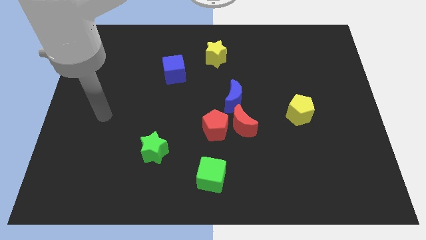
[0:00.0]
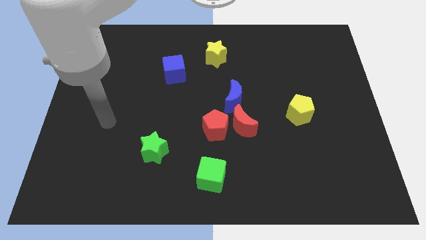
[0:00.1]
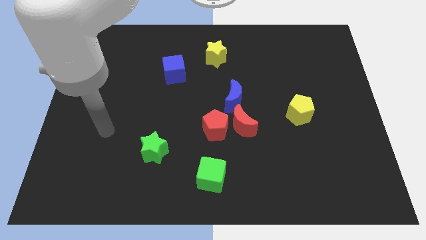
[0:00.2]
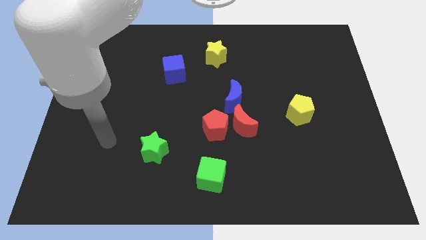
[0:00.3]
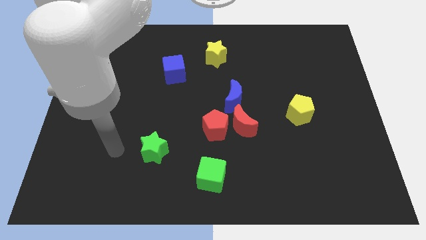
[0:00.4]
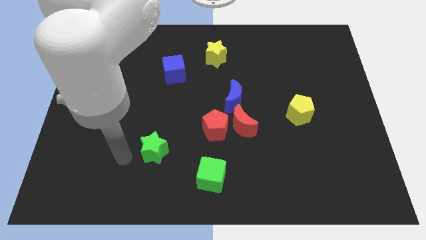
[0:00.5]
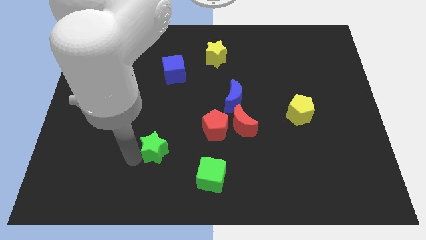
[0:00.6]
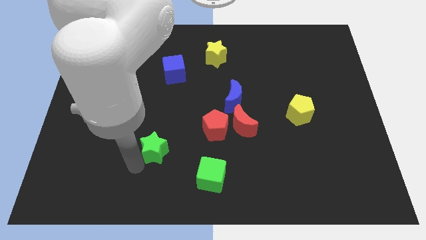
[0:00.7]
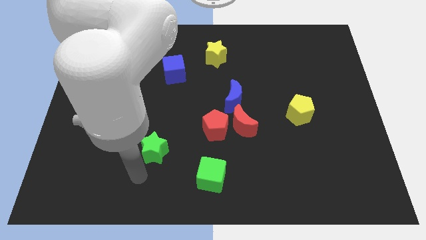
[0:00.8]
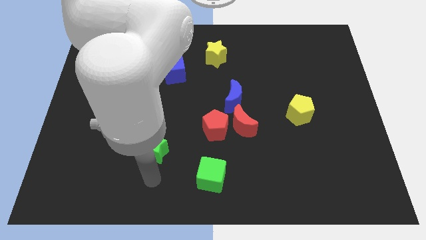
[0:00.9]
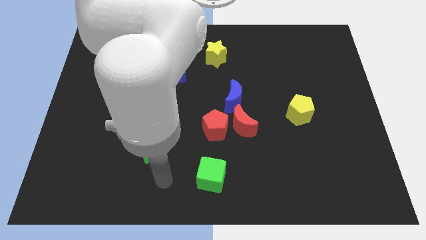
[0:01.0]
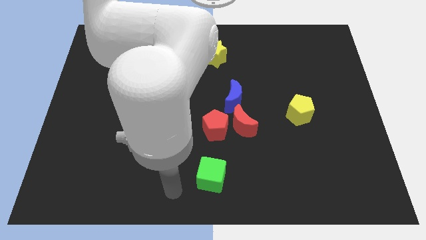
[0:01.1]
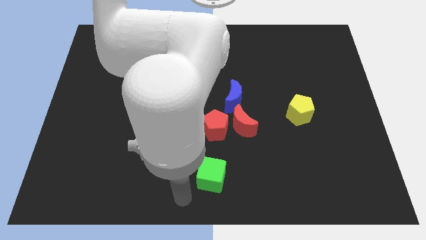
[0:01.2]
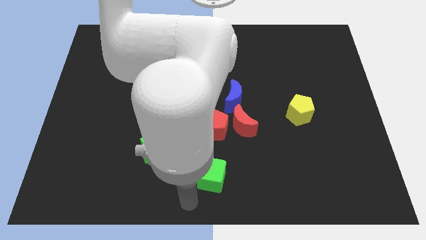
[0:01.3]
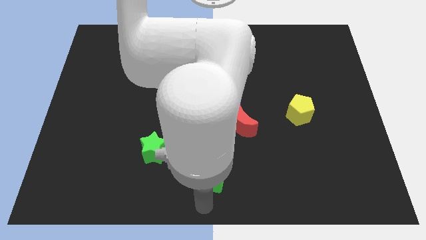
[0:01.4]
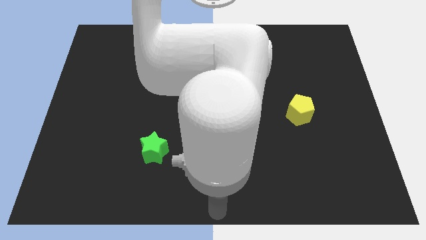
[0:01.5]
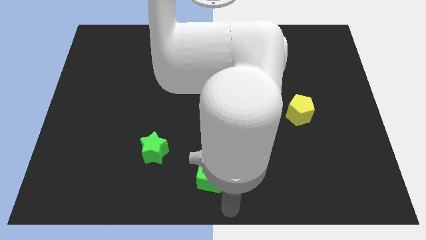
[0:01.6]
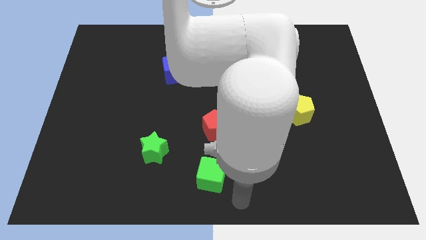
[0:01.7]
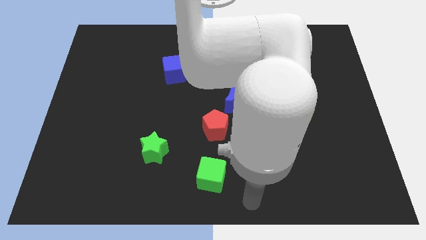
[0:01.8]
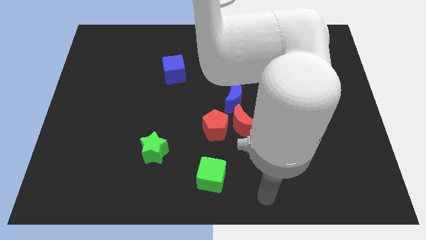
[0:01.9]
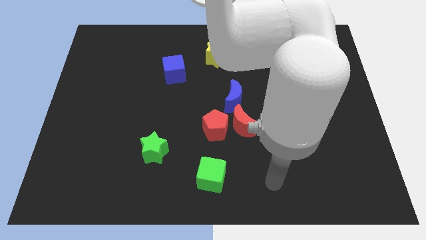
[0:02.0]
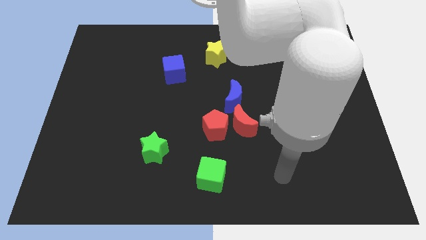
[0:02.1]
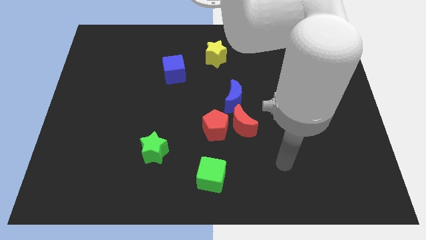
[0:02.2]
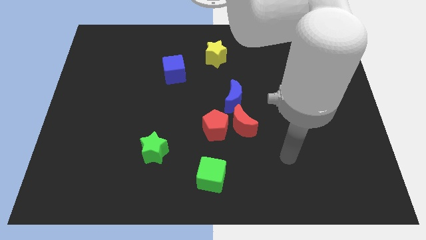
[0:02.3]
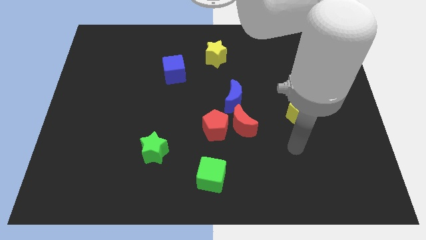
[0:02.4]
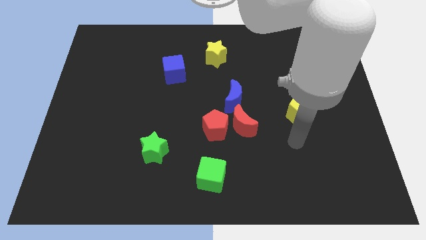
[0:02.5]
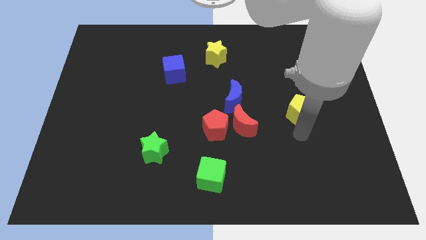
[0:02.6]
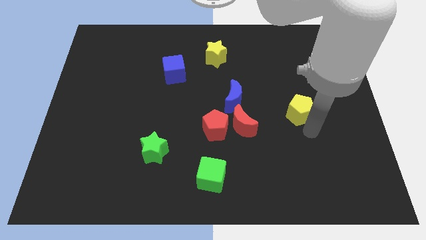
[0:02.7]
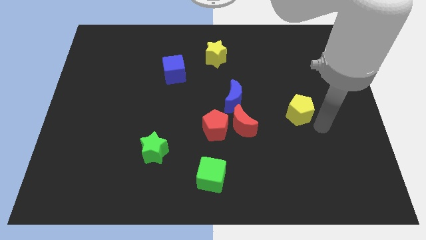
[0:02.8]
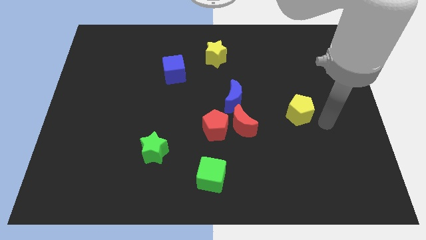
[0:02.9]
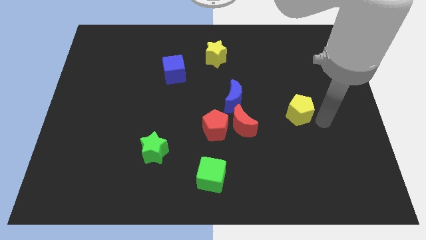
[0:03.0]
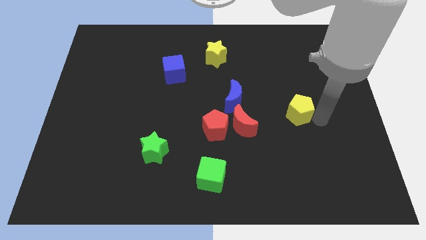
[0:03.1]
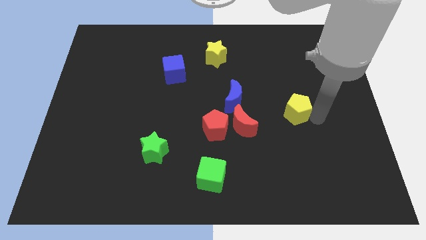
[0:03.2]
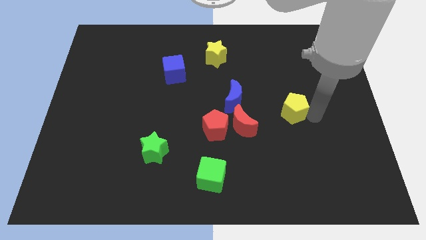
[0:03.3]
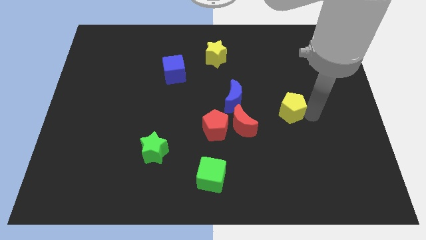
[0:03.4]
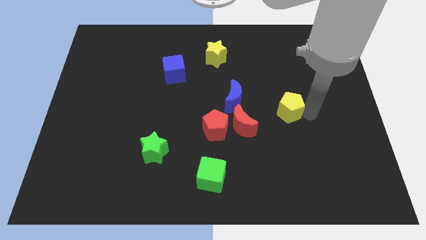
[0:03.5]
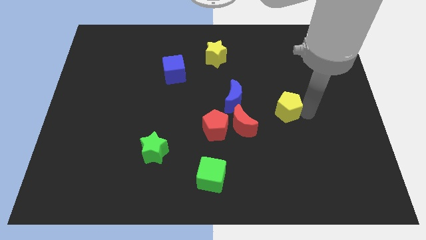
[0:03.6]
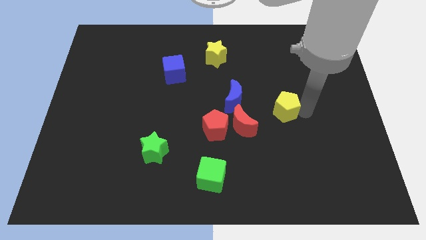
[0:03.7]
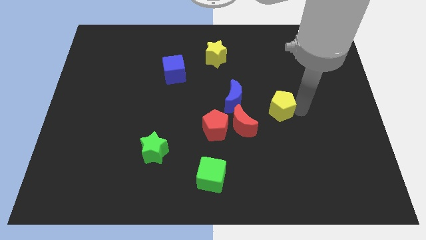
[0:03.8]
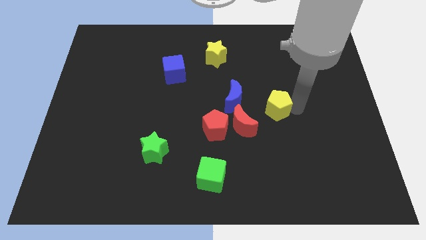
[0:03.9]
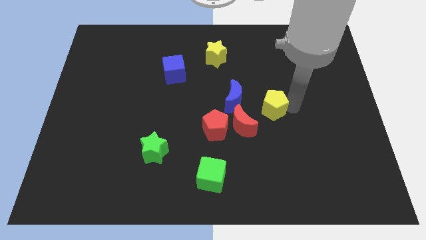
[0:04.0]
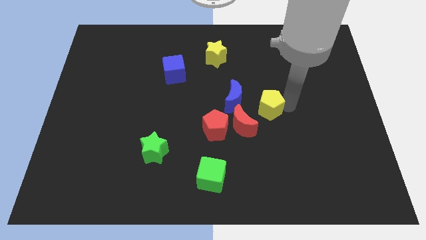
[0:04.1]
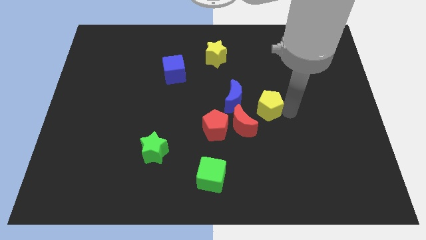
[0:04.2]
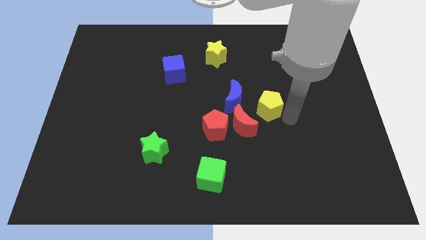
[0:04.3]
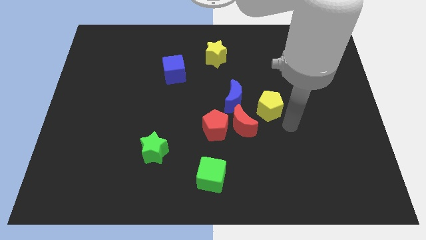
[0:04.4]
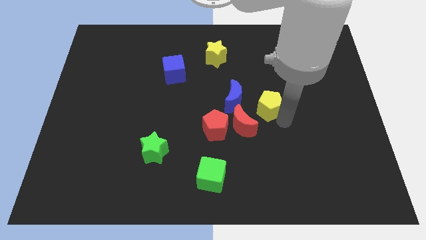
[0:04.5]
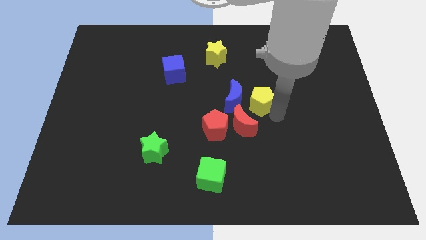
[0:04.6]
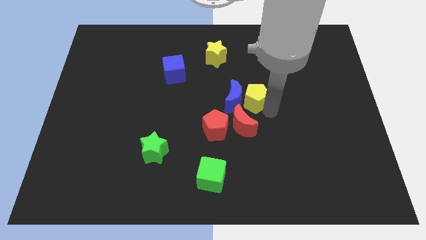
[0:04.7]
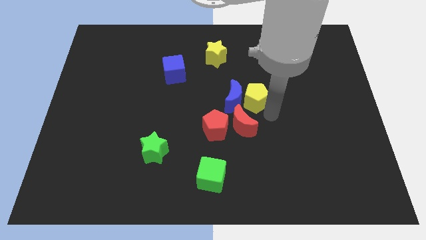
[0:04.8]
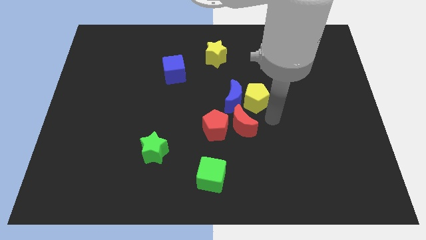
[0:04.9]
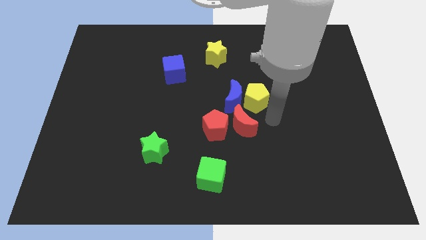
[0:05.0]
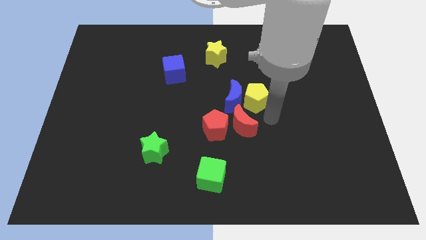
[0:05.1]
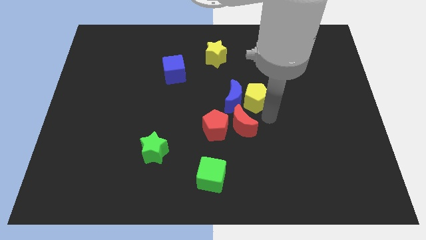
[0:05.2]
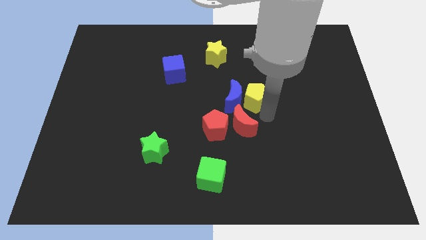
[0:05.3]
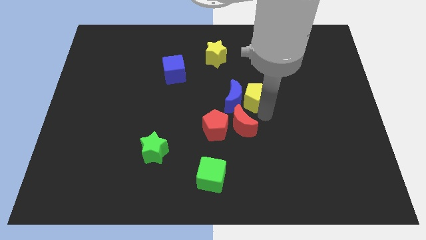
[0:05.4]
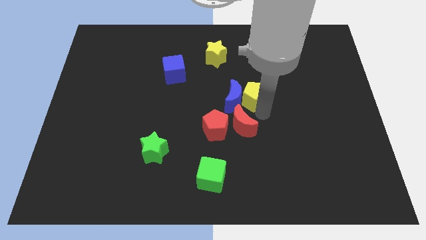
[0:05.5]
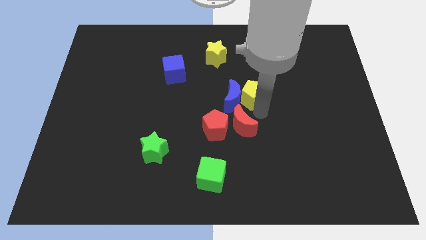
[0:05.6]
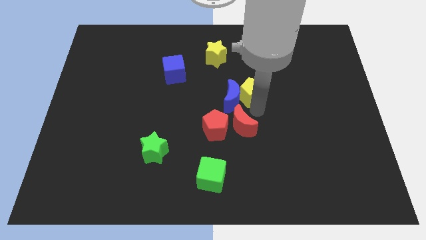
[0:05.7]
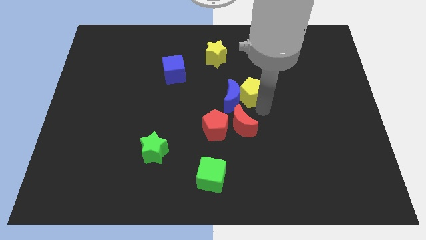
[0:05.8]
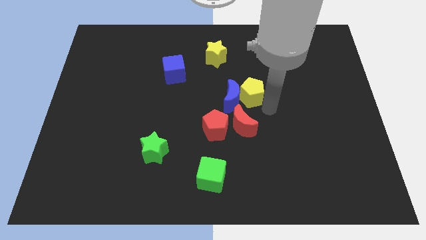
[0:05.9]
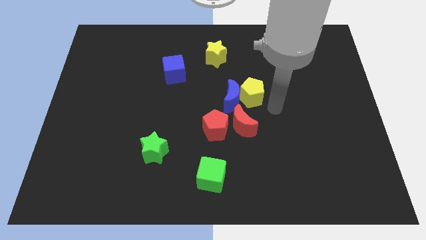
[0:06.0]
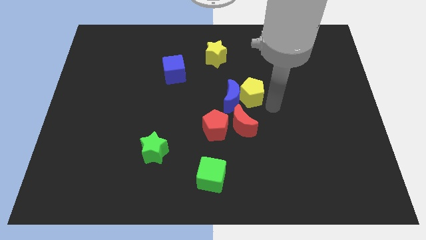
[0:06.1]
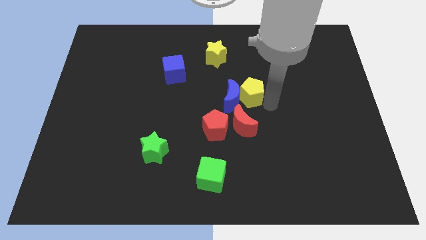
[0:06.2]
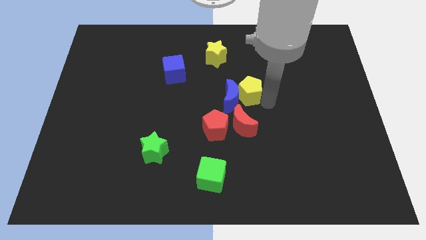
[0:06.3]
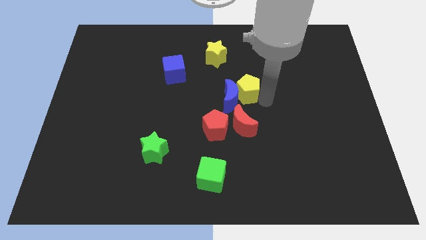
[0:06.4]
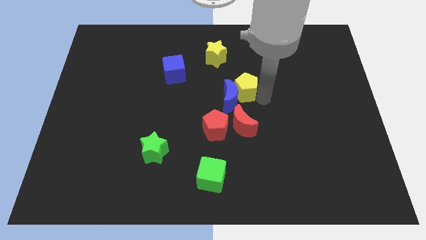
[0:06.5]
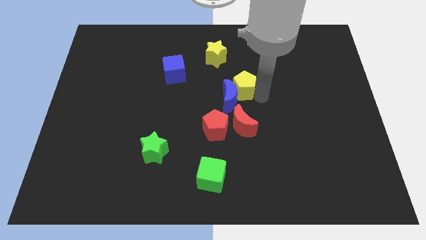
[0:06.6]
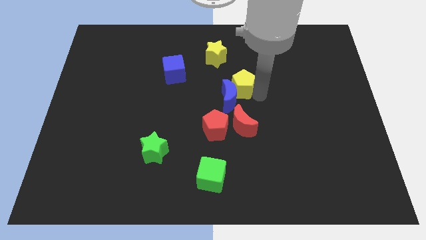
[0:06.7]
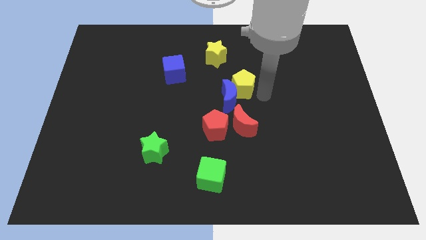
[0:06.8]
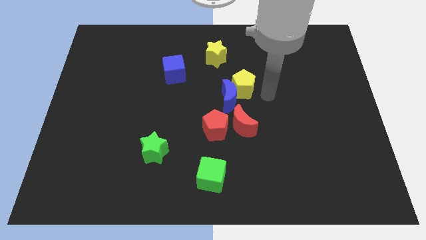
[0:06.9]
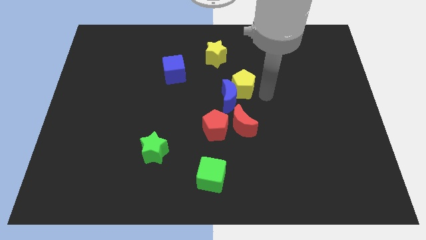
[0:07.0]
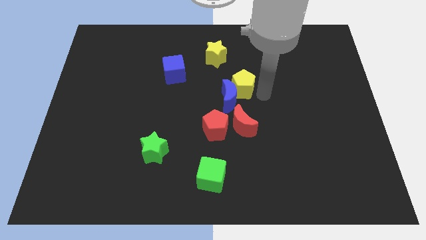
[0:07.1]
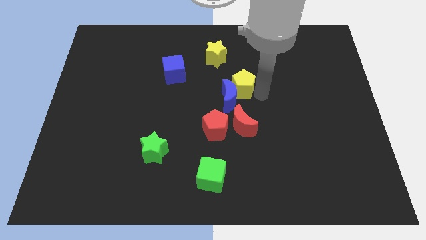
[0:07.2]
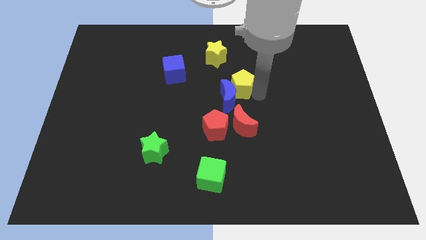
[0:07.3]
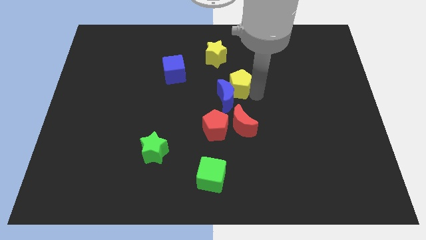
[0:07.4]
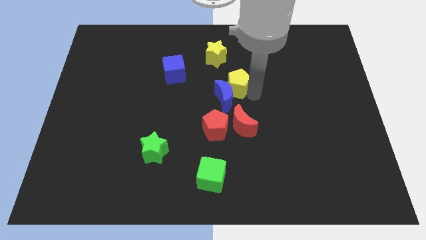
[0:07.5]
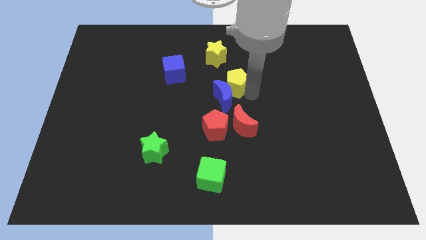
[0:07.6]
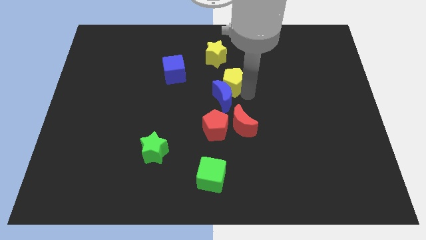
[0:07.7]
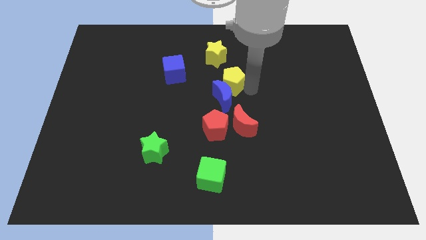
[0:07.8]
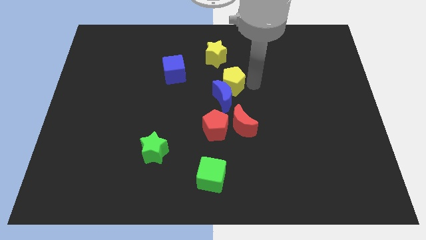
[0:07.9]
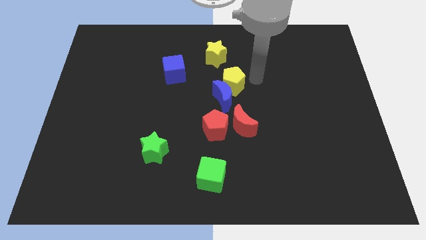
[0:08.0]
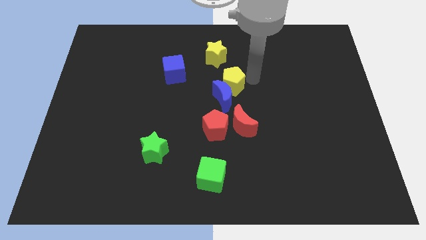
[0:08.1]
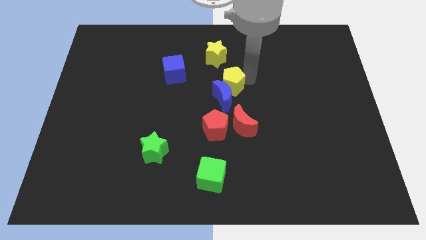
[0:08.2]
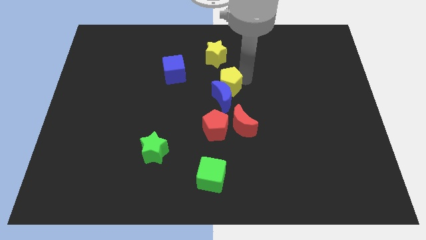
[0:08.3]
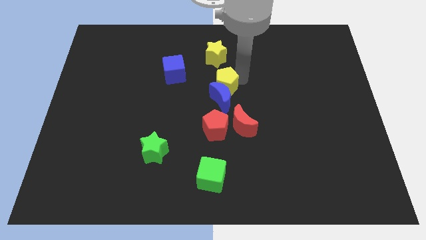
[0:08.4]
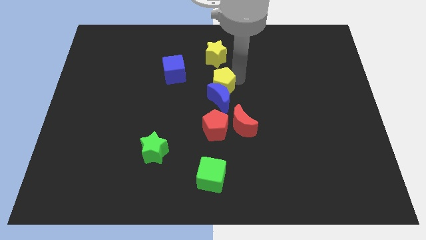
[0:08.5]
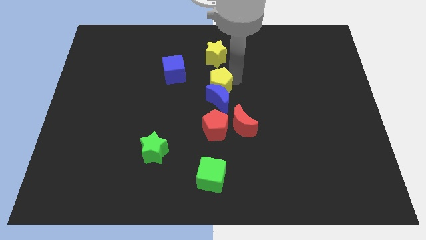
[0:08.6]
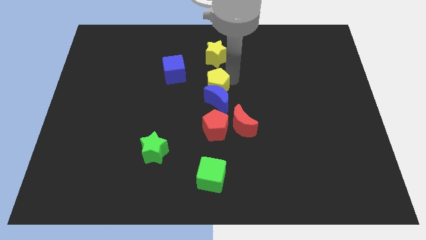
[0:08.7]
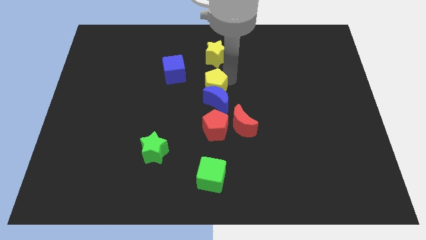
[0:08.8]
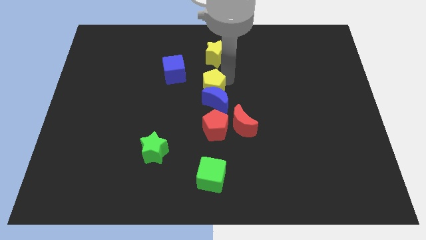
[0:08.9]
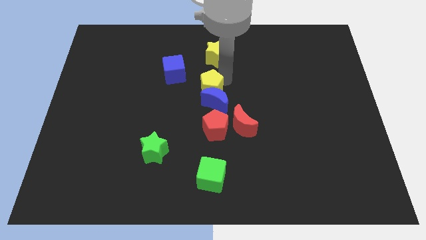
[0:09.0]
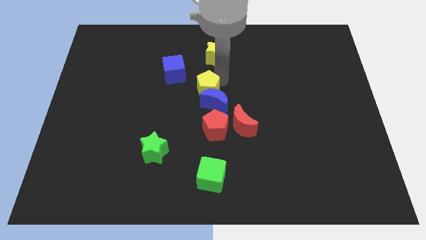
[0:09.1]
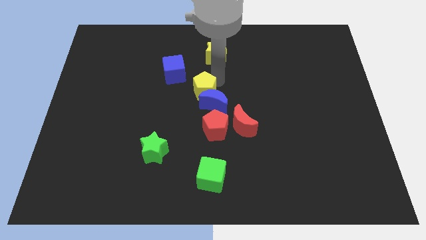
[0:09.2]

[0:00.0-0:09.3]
slide the yellow pentagon left
